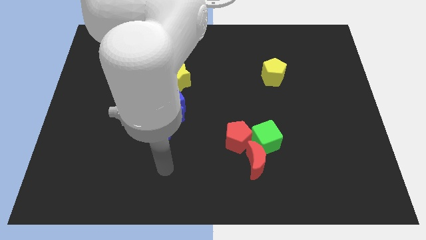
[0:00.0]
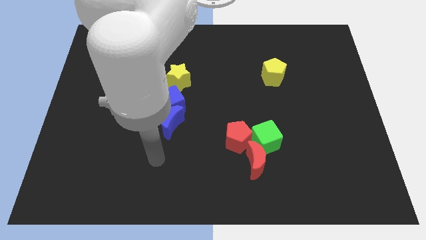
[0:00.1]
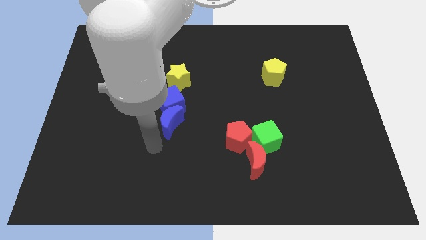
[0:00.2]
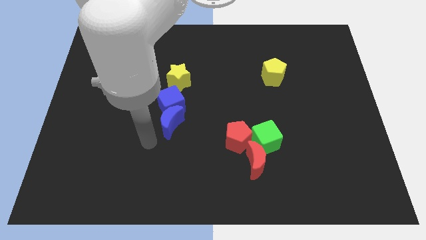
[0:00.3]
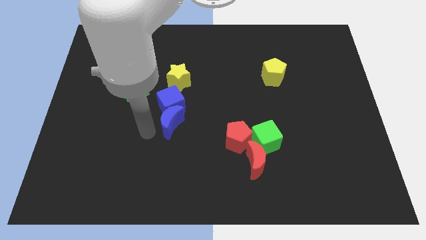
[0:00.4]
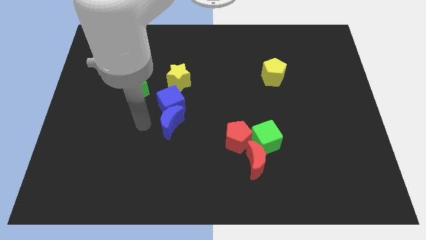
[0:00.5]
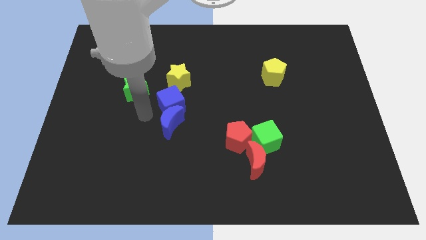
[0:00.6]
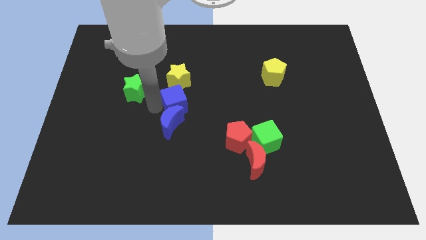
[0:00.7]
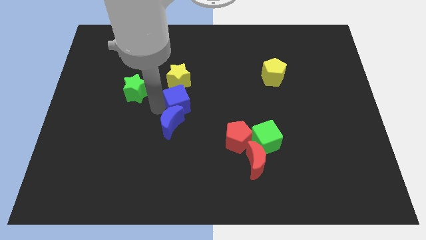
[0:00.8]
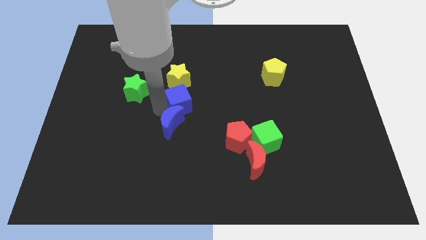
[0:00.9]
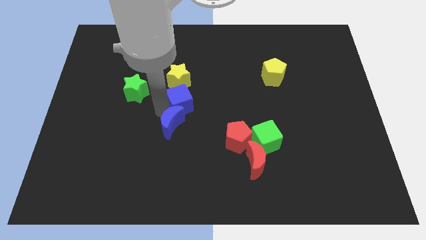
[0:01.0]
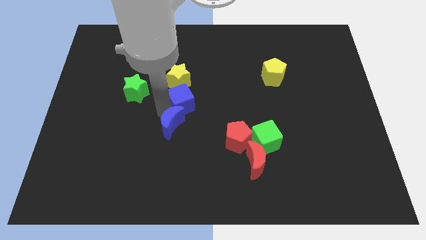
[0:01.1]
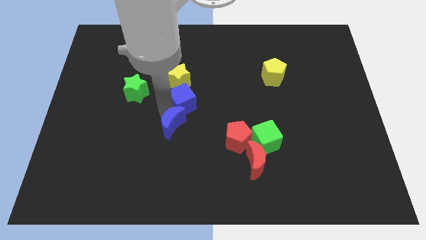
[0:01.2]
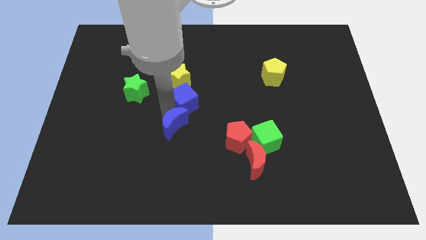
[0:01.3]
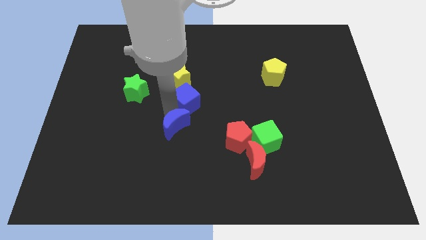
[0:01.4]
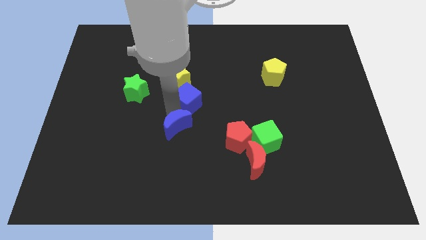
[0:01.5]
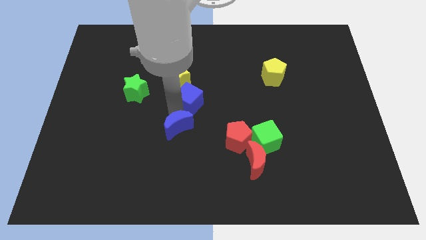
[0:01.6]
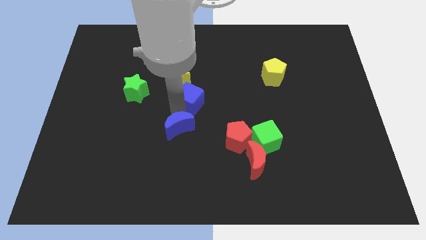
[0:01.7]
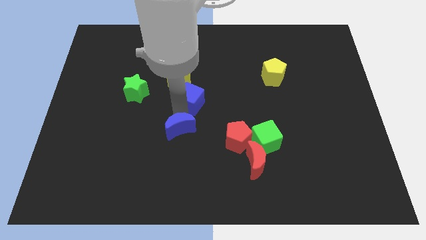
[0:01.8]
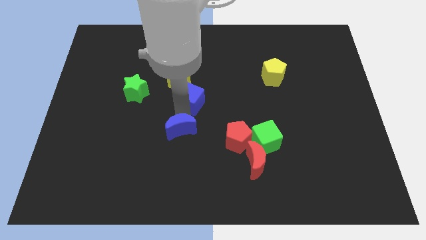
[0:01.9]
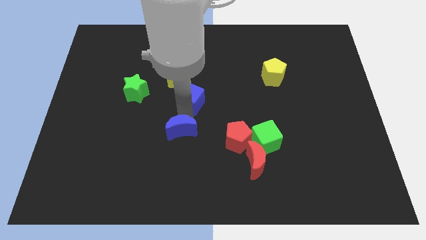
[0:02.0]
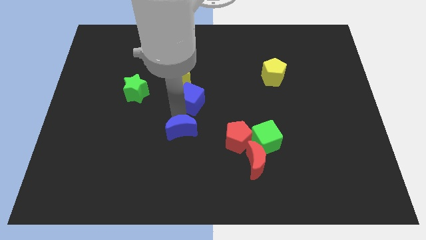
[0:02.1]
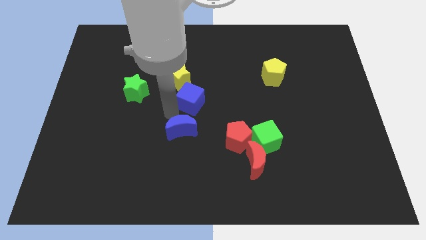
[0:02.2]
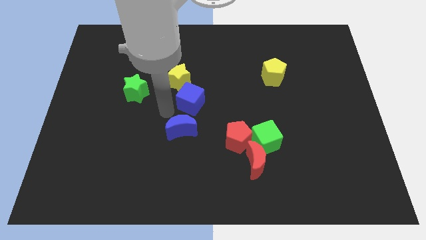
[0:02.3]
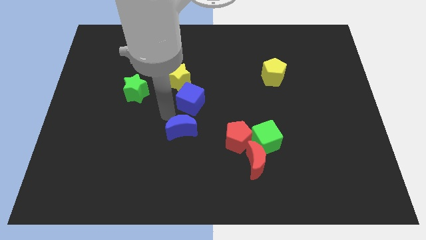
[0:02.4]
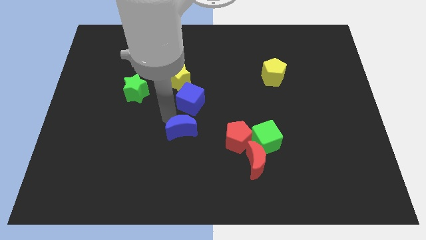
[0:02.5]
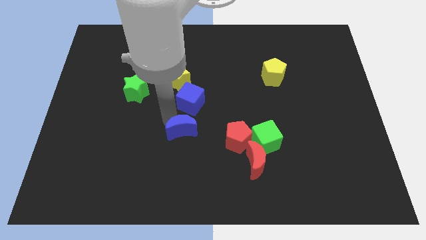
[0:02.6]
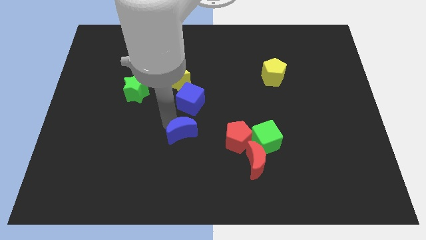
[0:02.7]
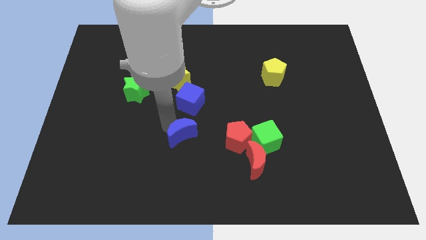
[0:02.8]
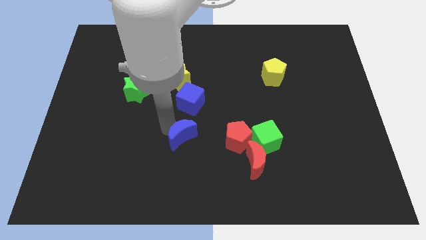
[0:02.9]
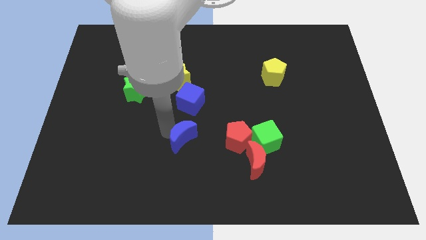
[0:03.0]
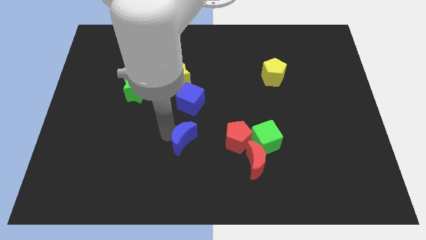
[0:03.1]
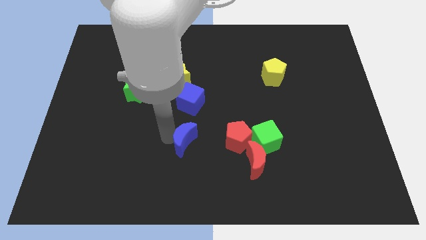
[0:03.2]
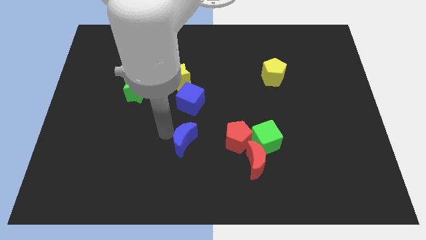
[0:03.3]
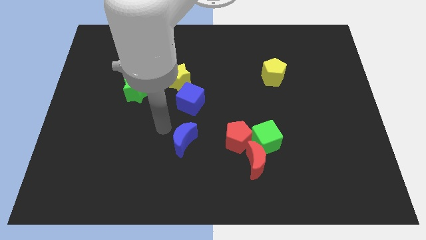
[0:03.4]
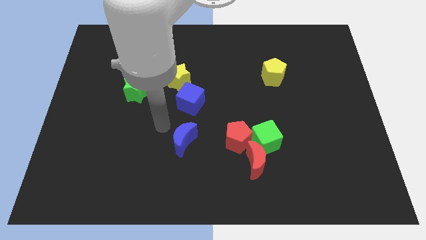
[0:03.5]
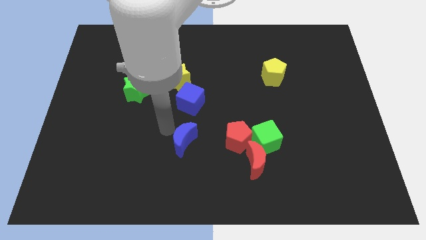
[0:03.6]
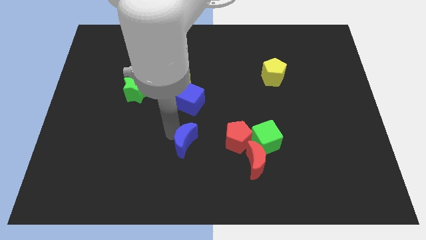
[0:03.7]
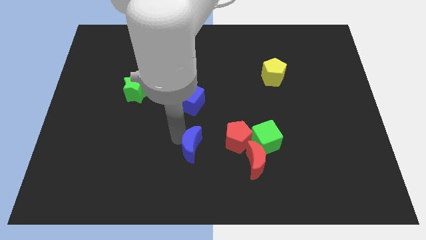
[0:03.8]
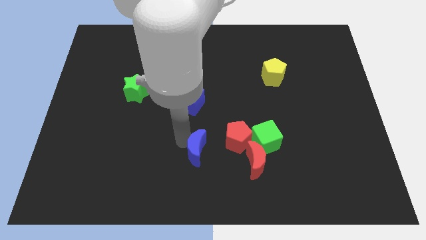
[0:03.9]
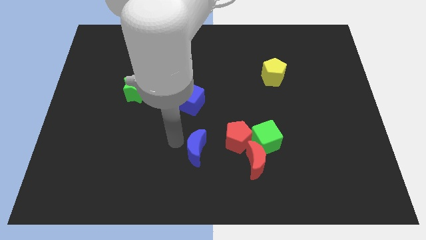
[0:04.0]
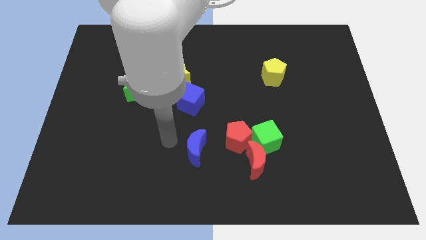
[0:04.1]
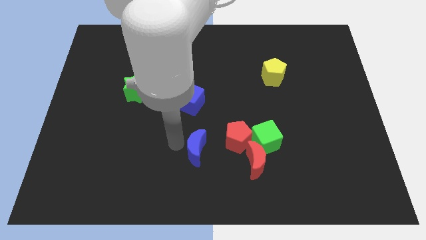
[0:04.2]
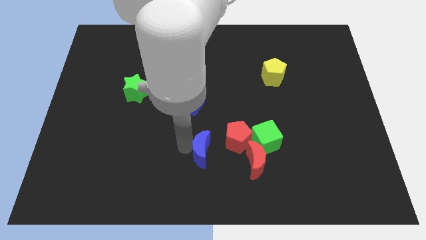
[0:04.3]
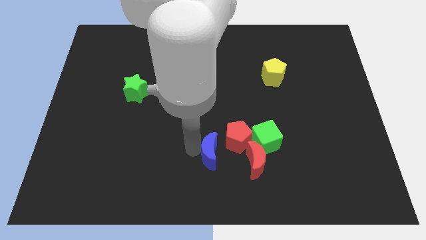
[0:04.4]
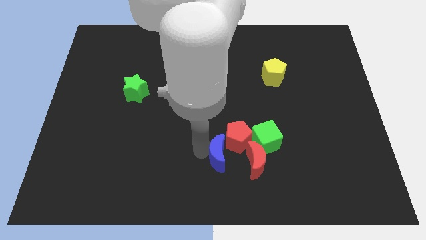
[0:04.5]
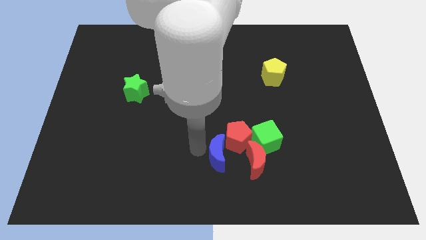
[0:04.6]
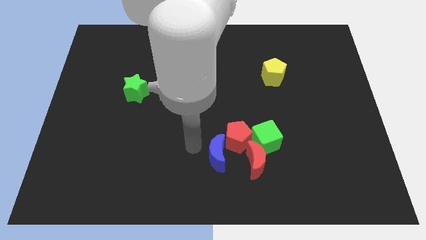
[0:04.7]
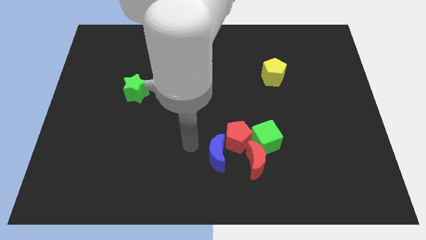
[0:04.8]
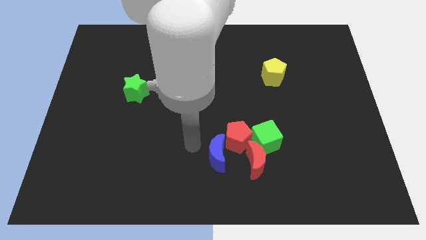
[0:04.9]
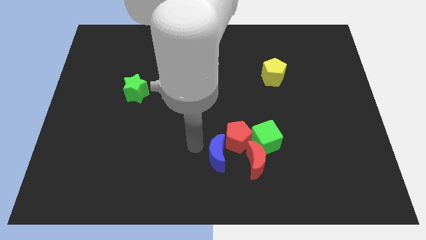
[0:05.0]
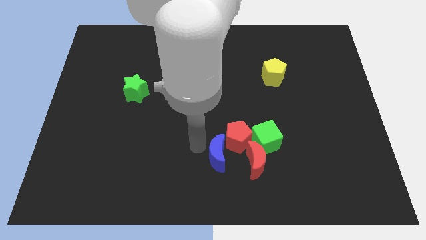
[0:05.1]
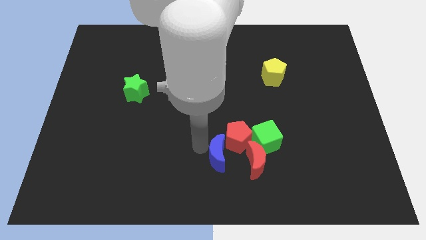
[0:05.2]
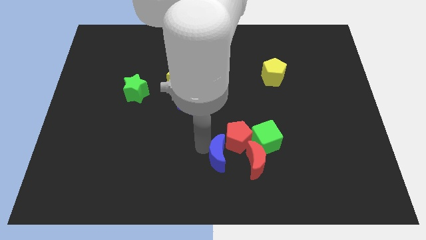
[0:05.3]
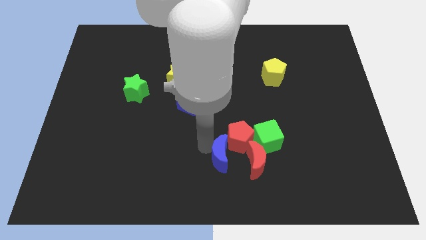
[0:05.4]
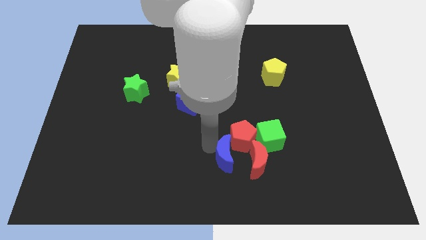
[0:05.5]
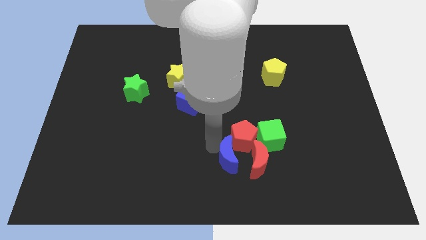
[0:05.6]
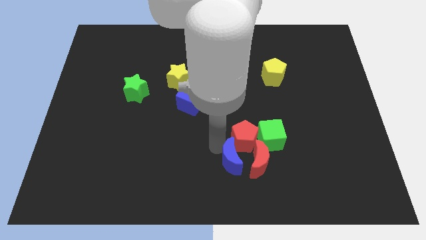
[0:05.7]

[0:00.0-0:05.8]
move the blue moon next to the red moon

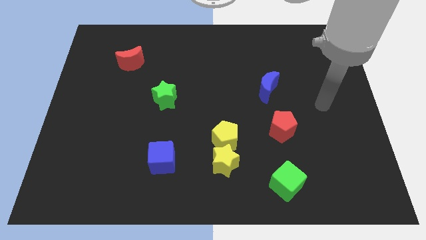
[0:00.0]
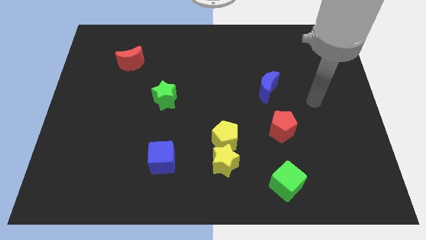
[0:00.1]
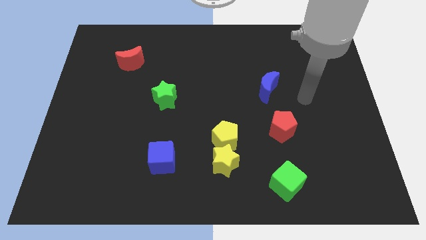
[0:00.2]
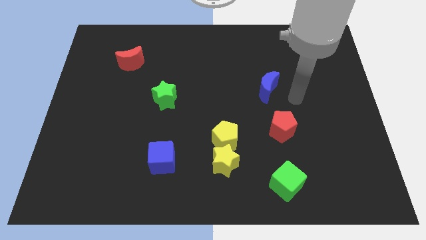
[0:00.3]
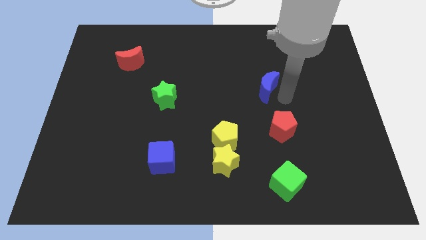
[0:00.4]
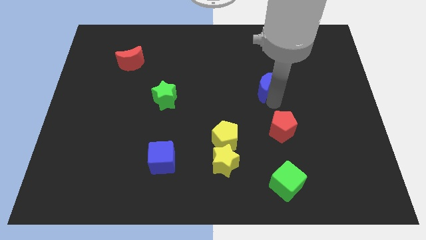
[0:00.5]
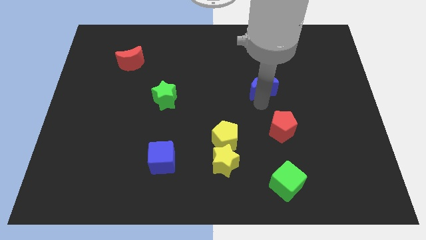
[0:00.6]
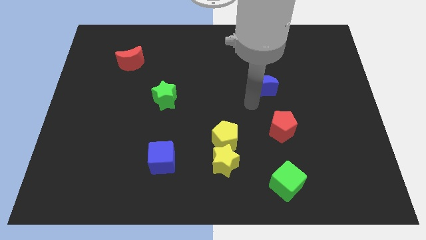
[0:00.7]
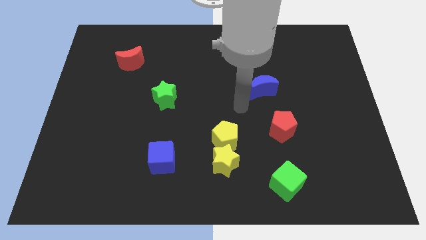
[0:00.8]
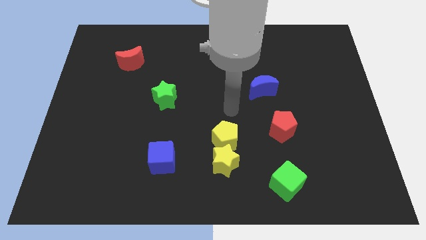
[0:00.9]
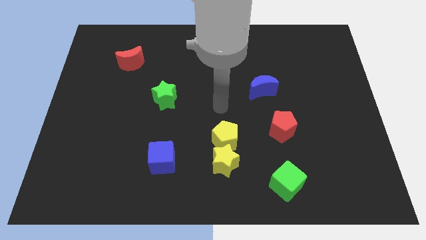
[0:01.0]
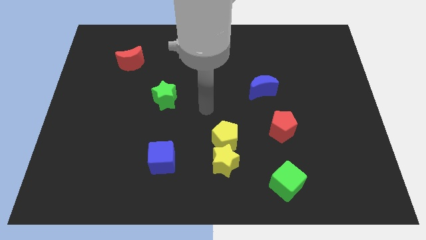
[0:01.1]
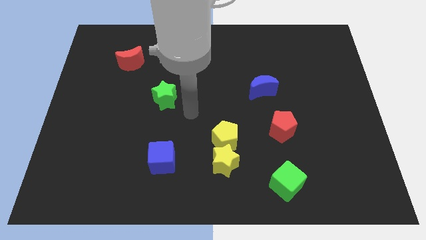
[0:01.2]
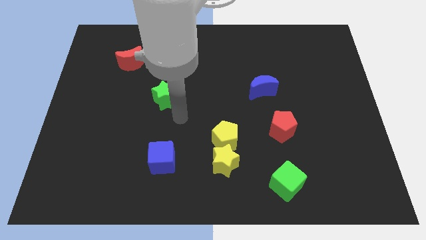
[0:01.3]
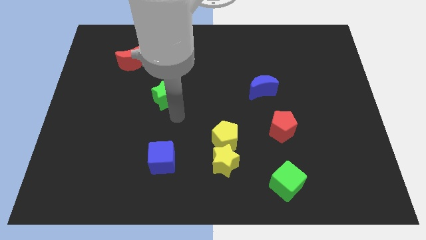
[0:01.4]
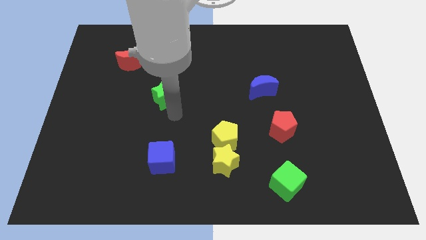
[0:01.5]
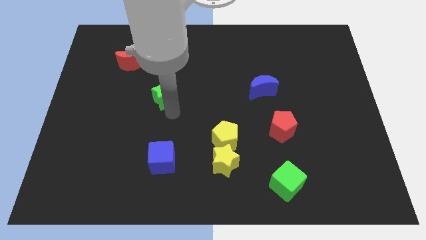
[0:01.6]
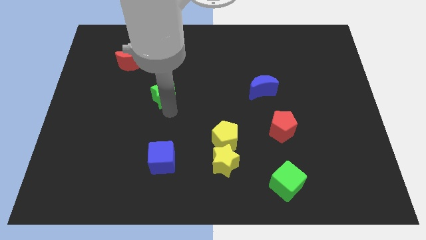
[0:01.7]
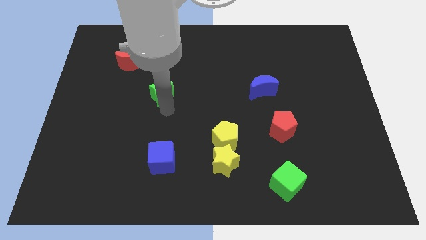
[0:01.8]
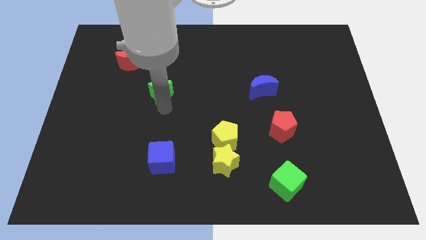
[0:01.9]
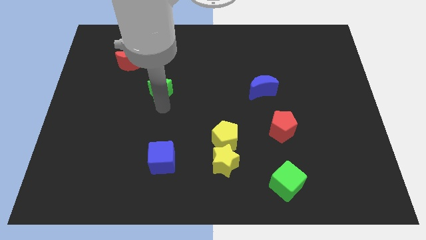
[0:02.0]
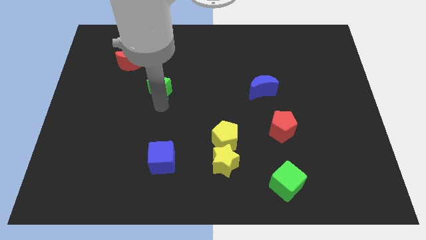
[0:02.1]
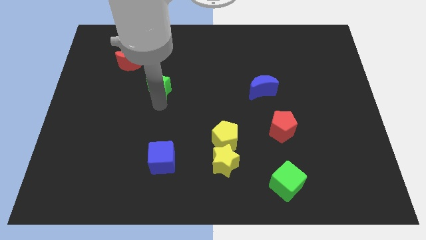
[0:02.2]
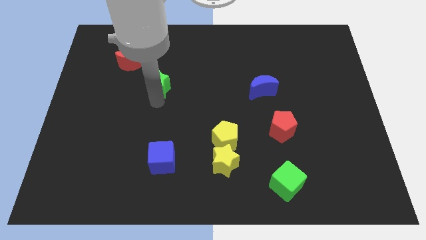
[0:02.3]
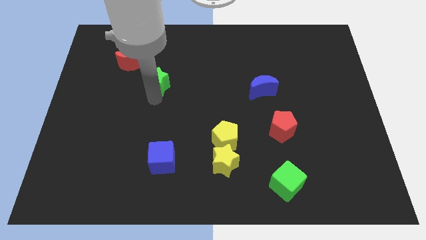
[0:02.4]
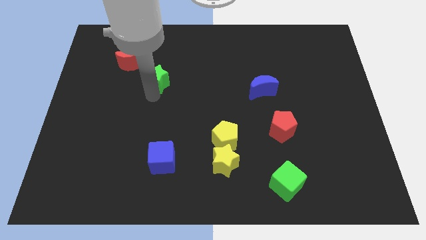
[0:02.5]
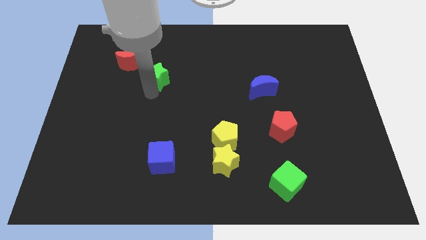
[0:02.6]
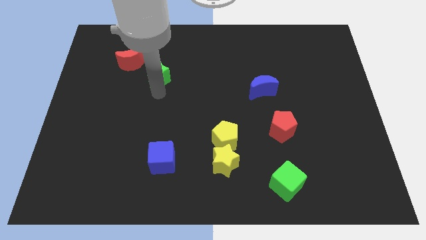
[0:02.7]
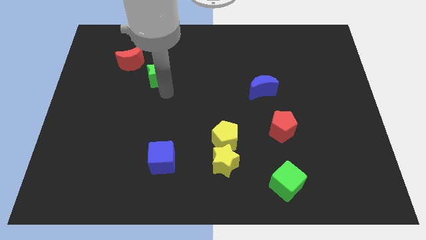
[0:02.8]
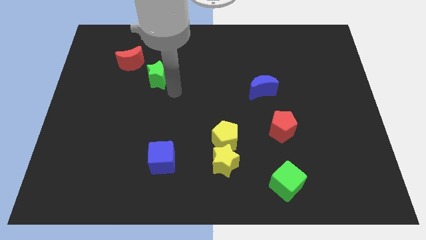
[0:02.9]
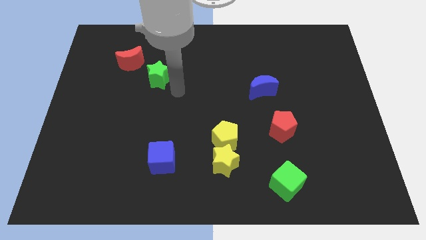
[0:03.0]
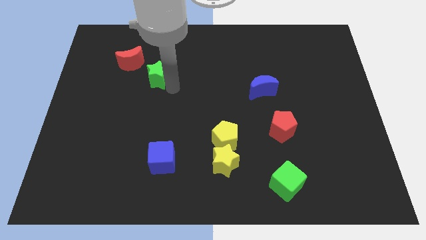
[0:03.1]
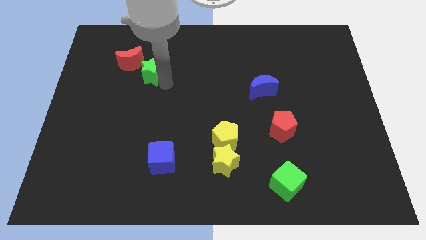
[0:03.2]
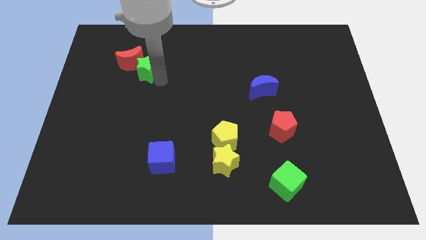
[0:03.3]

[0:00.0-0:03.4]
slide the green star close to the red moon
